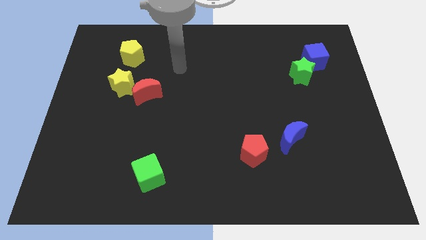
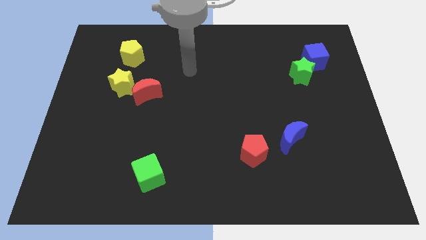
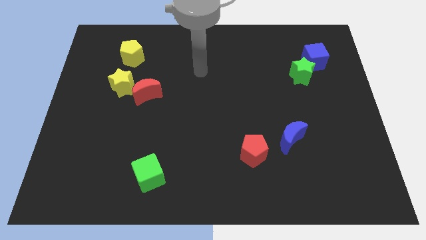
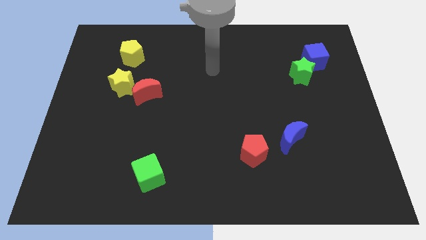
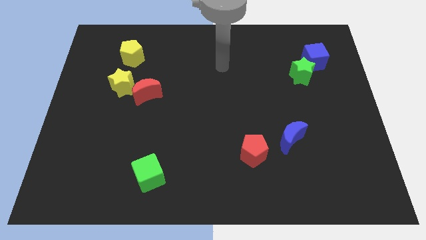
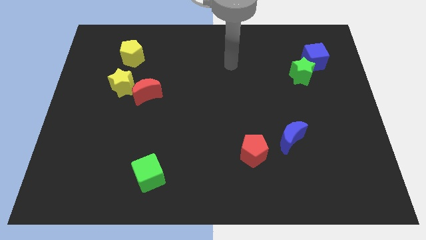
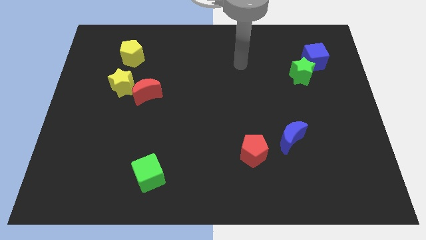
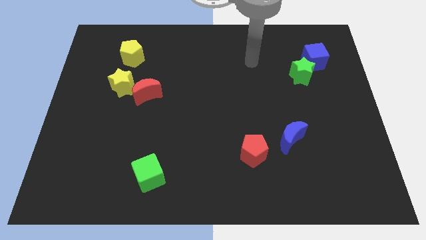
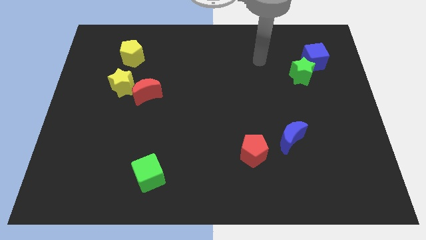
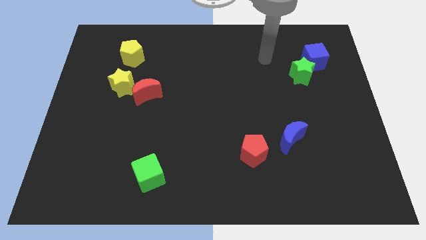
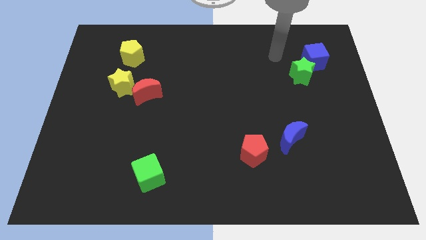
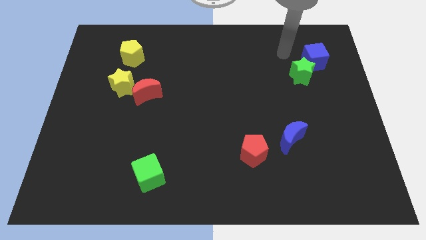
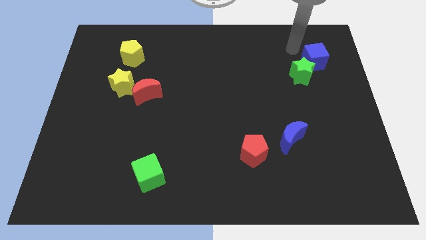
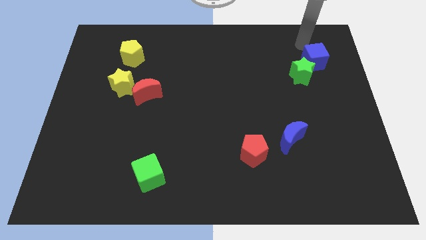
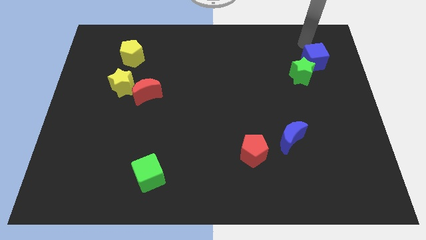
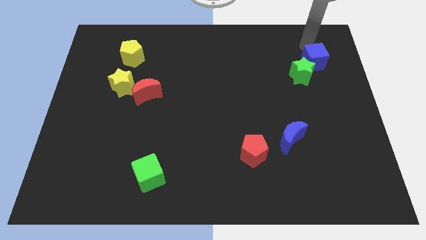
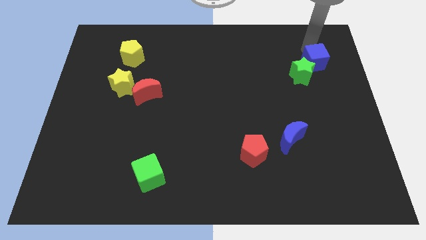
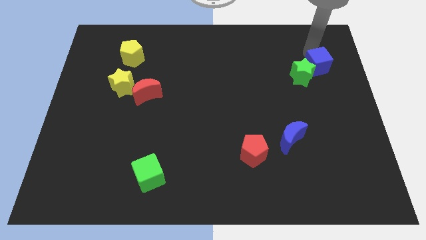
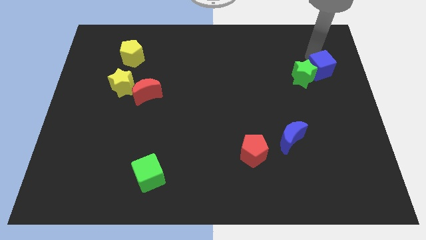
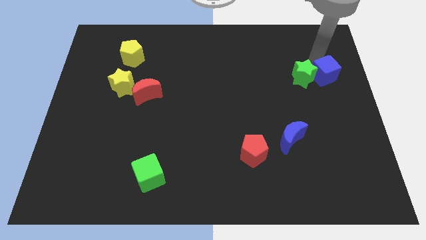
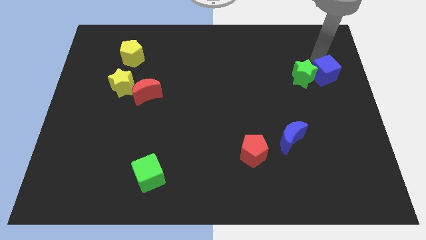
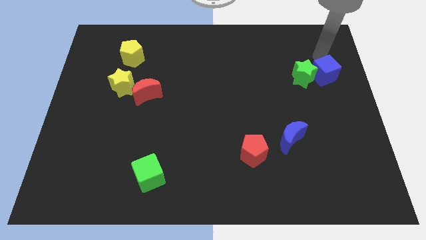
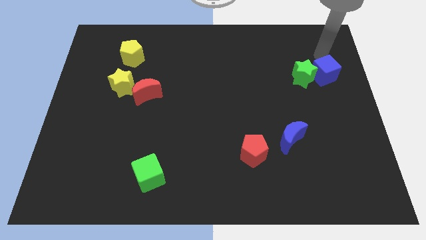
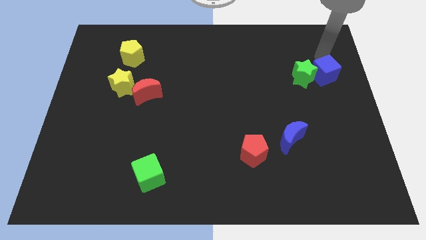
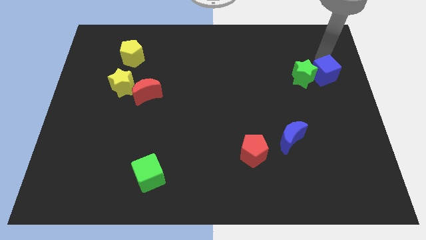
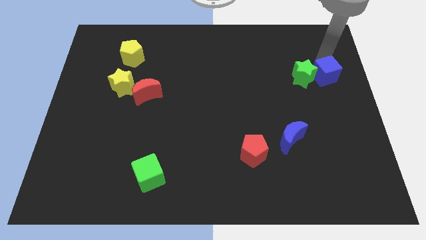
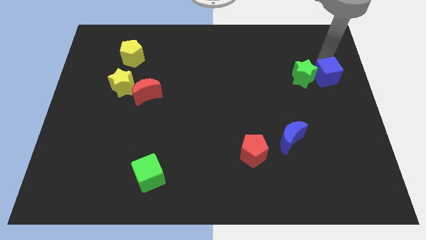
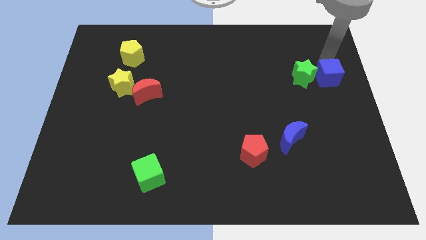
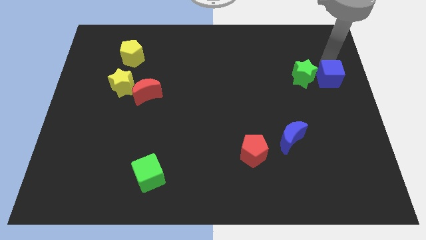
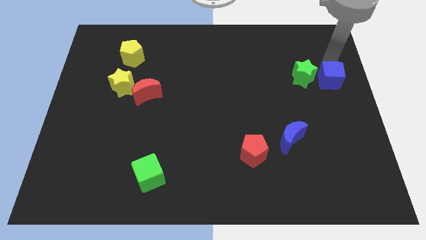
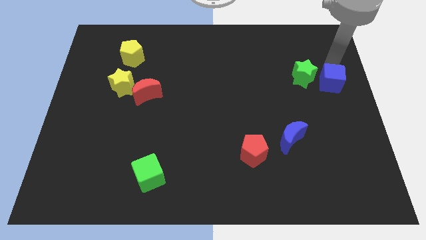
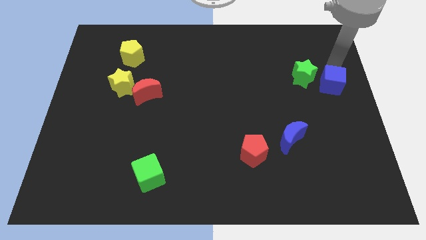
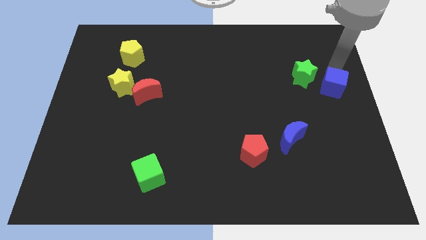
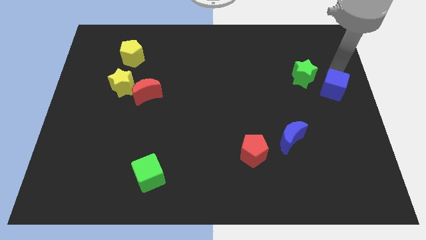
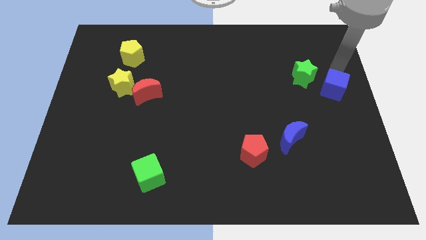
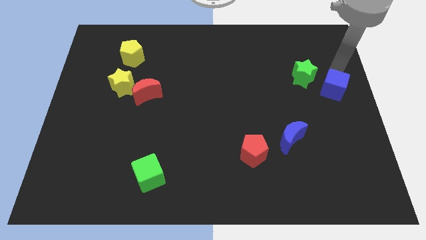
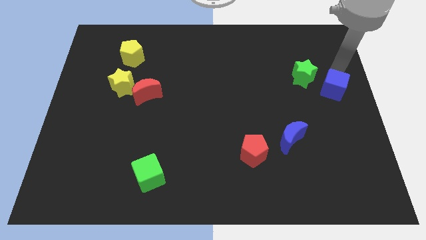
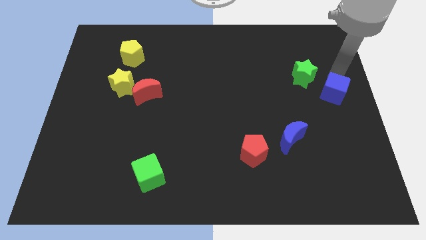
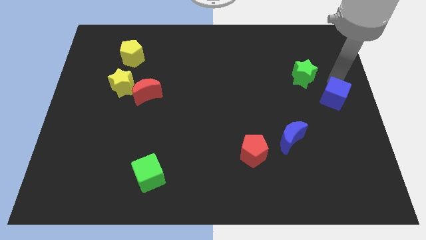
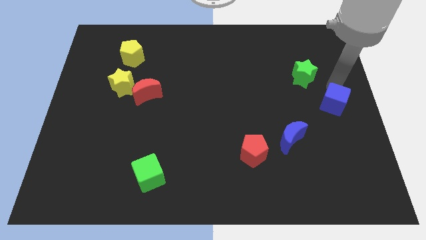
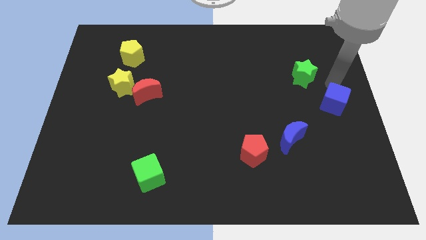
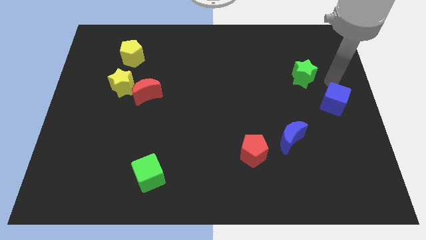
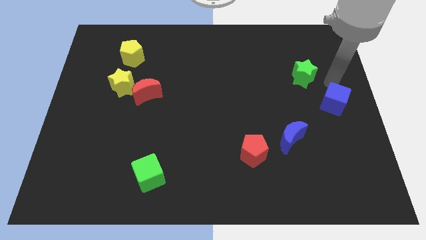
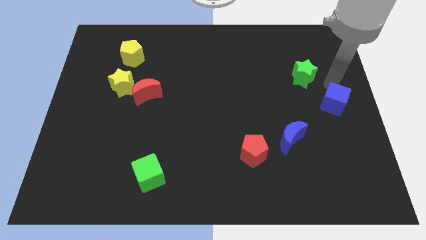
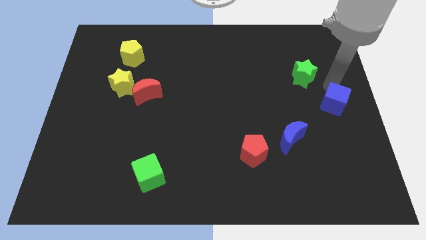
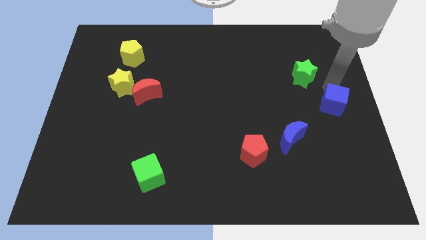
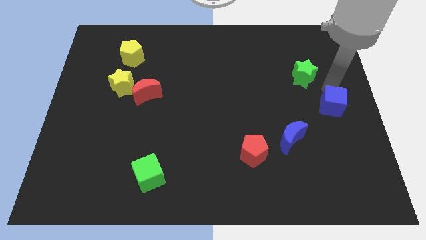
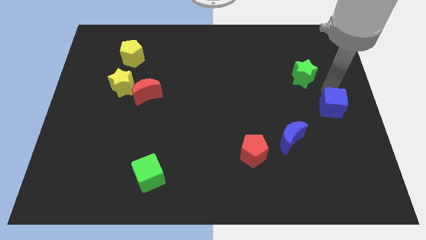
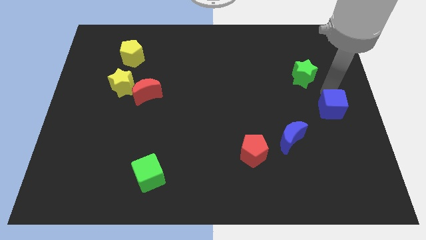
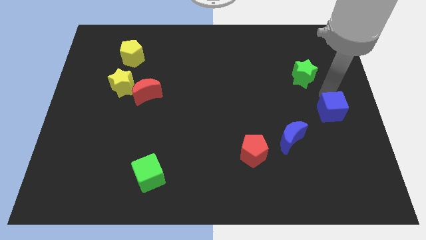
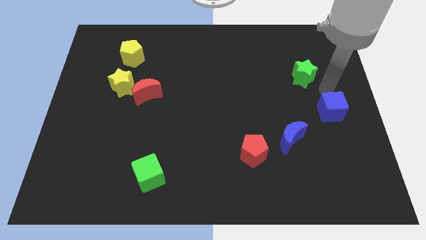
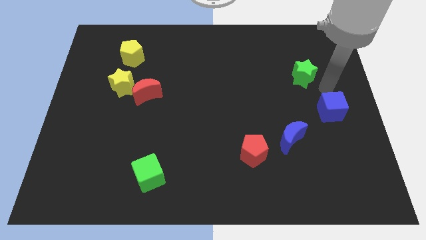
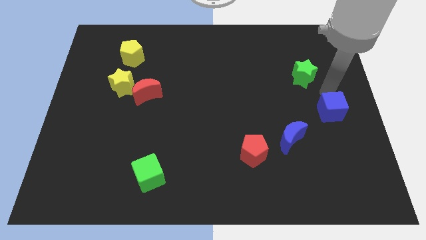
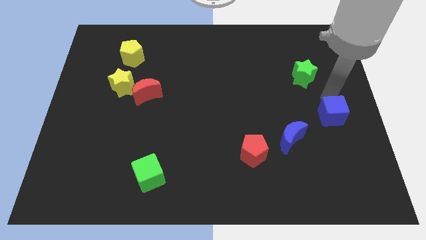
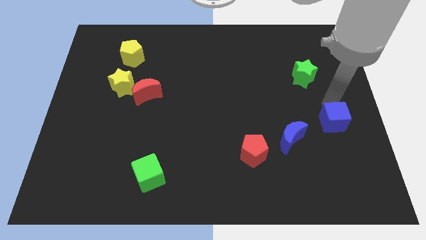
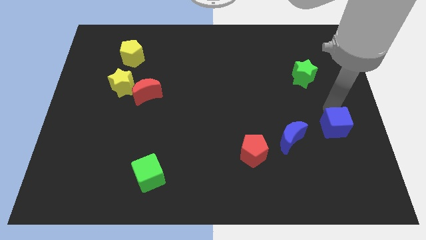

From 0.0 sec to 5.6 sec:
move the blue cube downwards

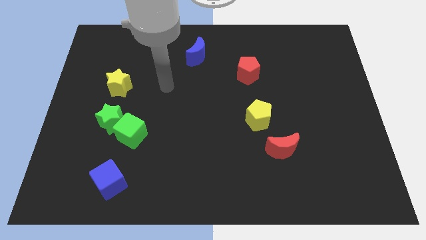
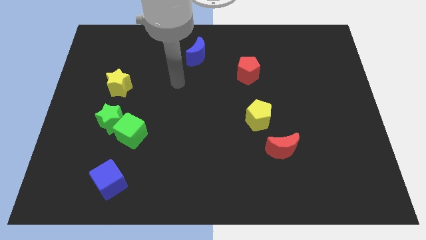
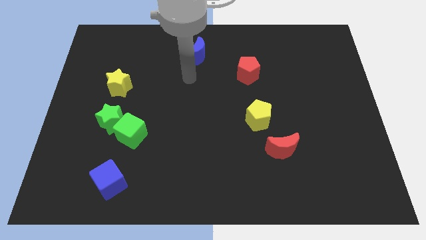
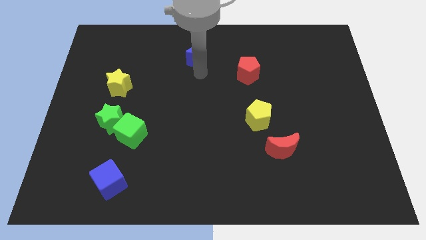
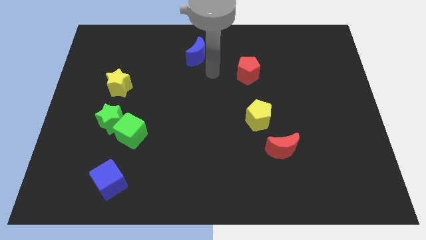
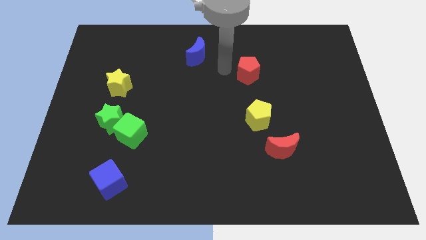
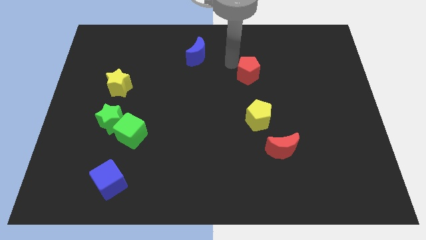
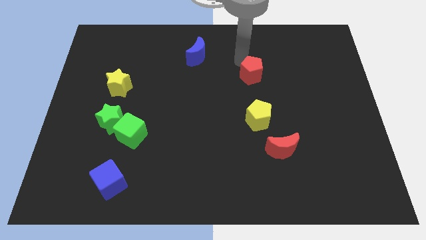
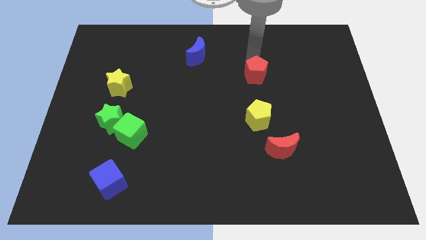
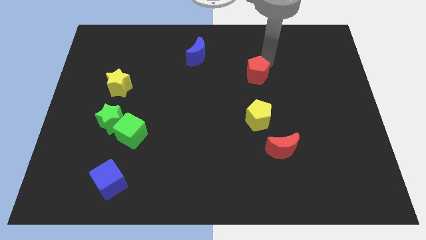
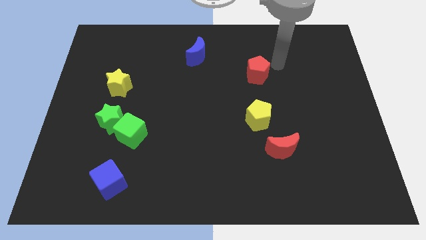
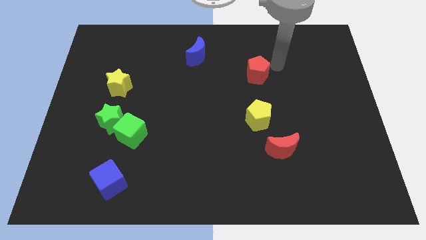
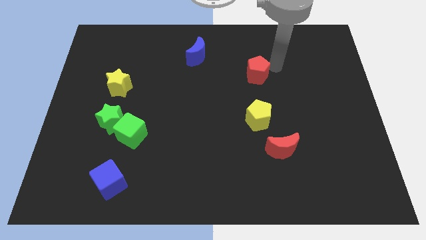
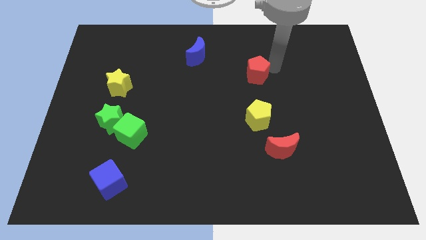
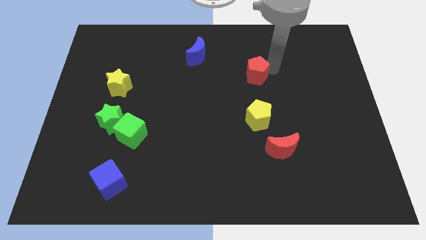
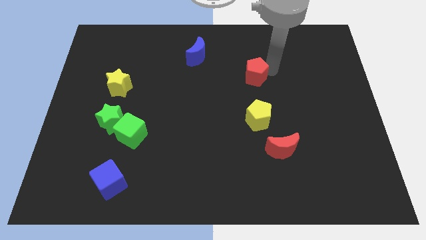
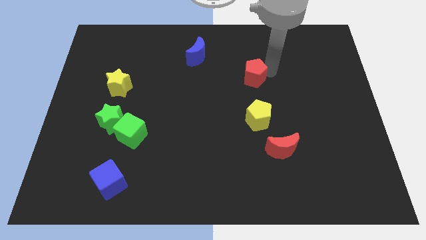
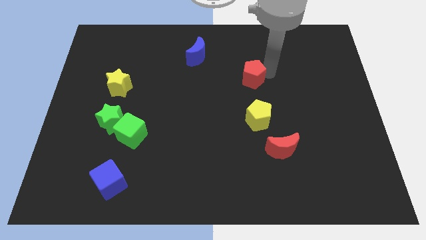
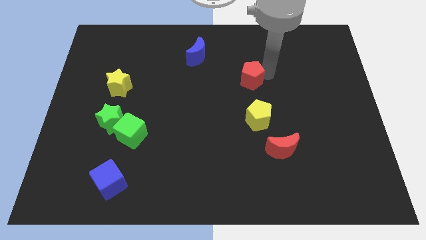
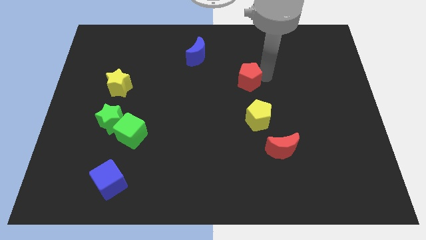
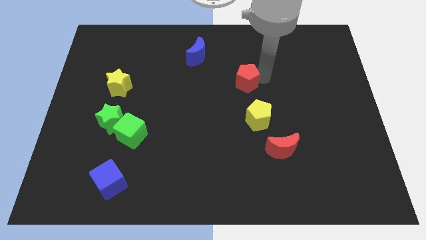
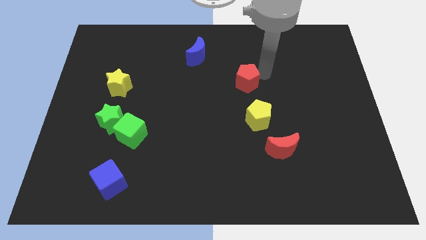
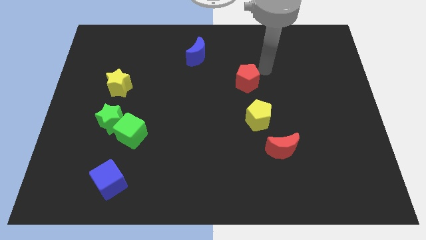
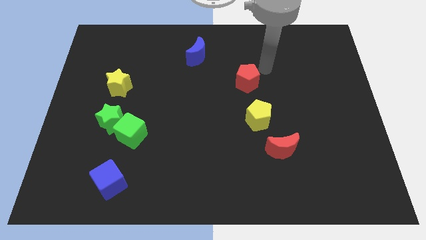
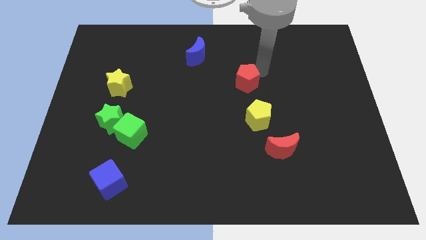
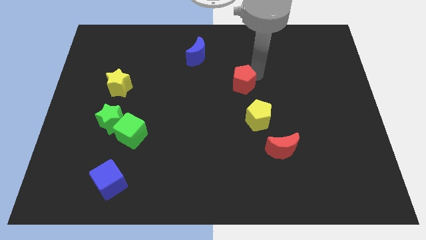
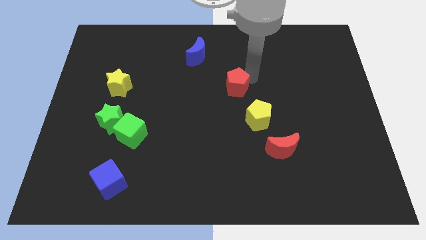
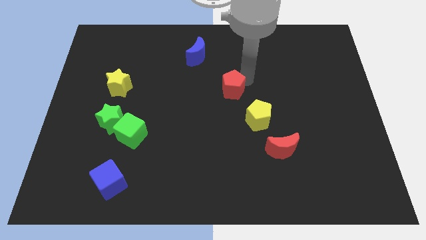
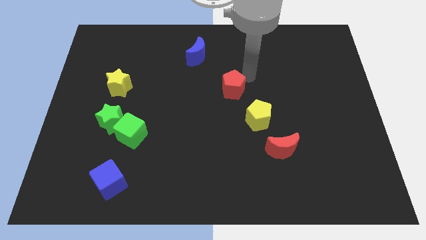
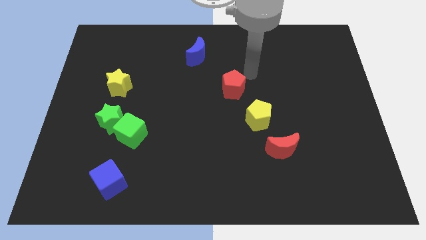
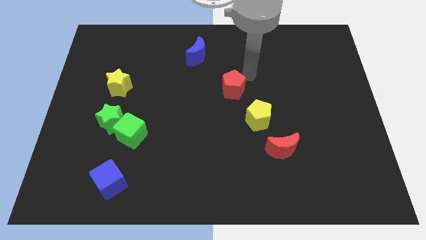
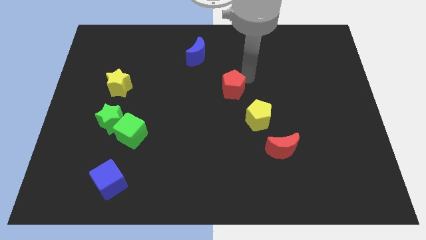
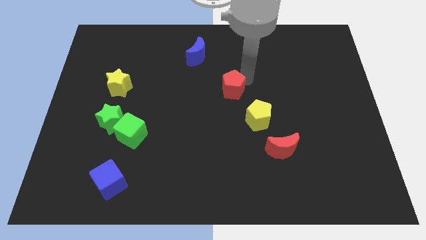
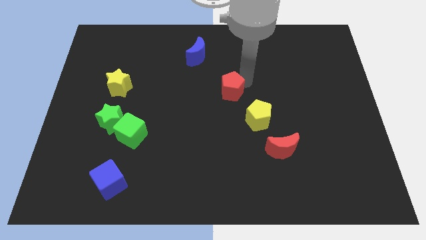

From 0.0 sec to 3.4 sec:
slide the red pentagon down and then left somewhat
